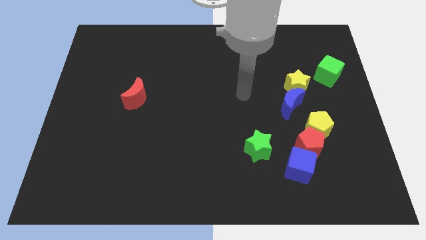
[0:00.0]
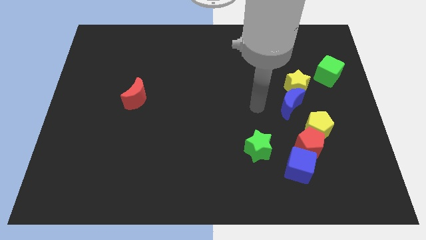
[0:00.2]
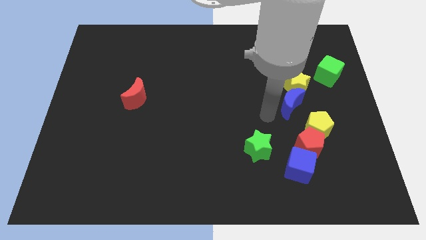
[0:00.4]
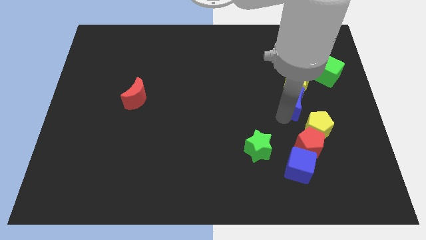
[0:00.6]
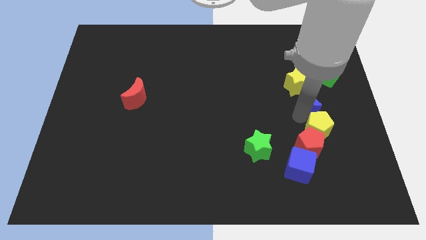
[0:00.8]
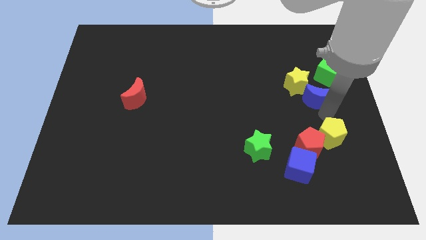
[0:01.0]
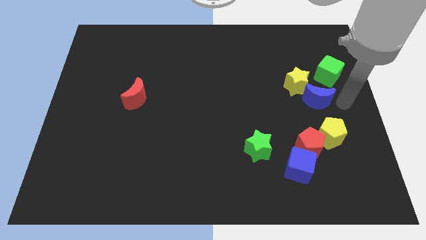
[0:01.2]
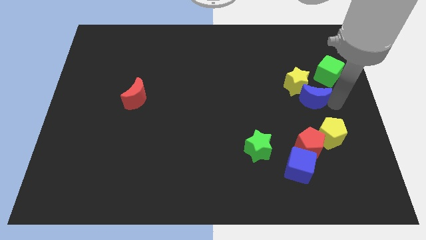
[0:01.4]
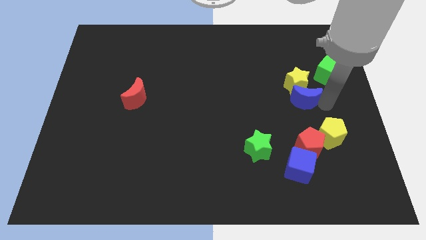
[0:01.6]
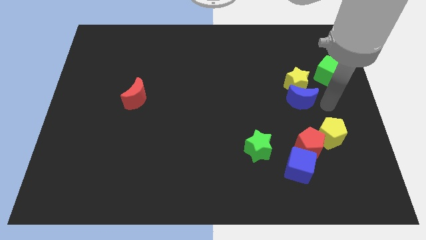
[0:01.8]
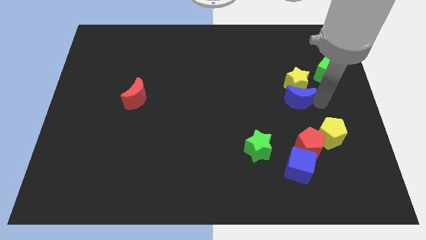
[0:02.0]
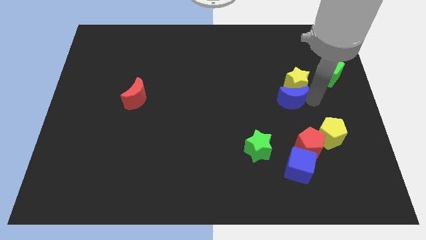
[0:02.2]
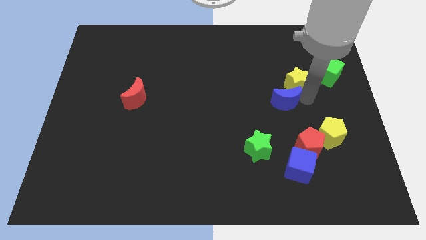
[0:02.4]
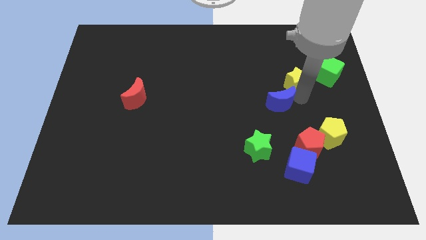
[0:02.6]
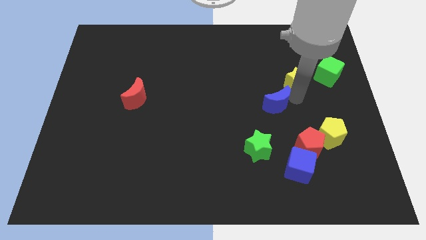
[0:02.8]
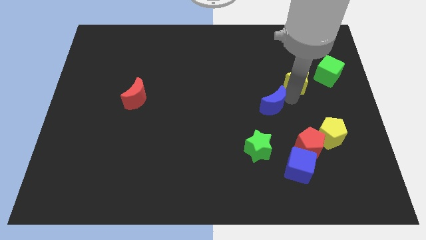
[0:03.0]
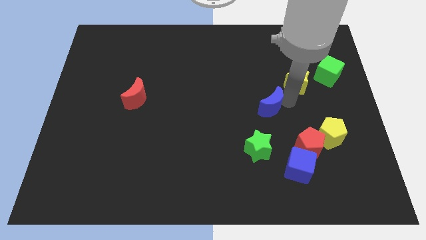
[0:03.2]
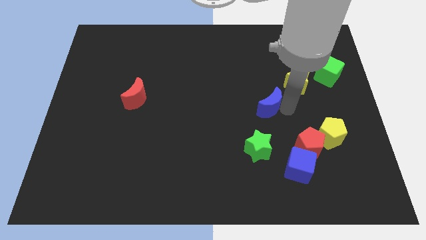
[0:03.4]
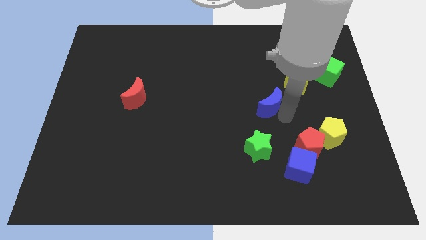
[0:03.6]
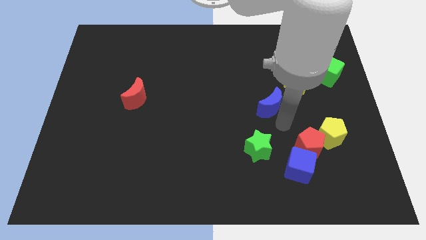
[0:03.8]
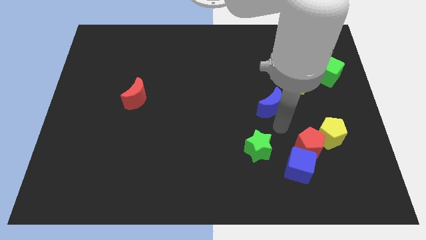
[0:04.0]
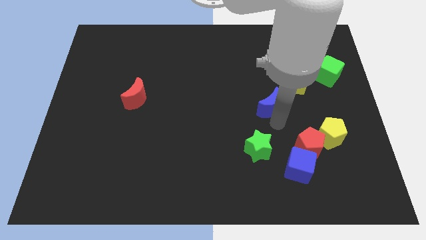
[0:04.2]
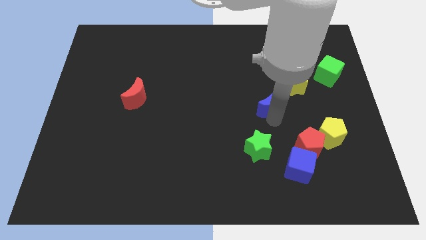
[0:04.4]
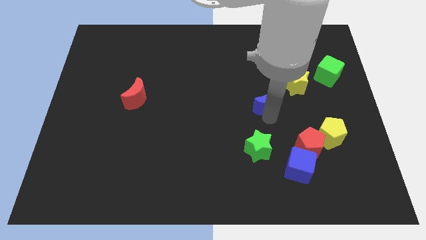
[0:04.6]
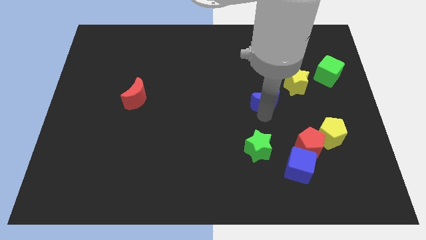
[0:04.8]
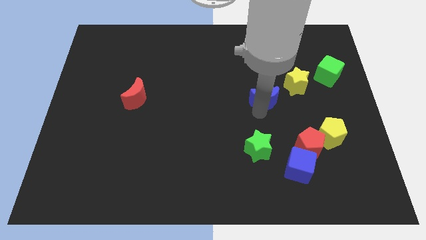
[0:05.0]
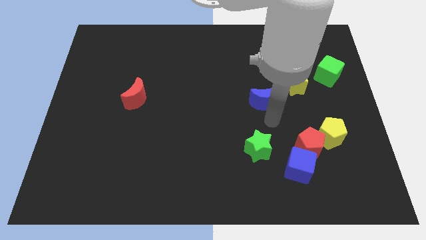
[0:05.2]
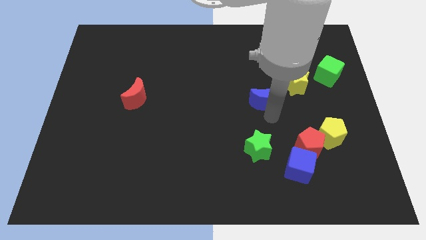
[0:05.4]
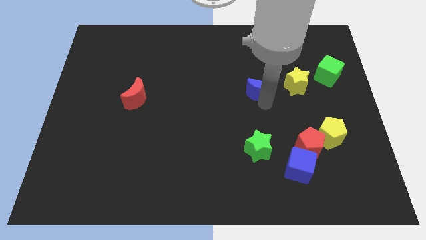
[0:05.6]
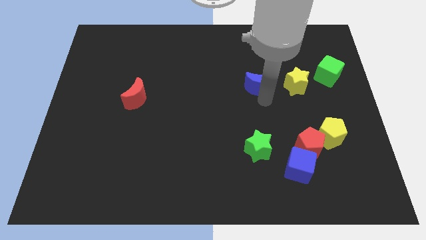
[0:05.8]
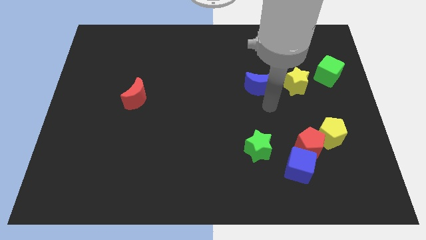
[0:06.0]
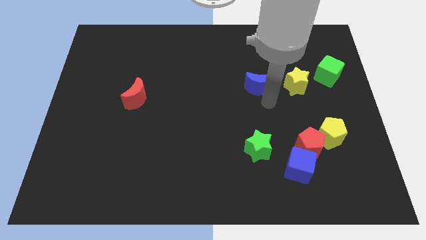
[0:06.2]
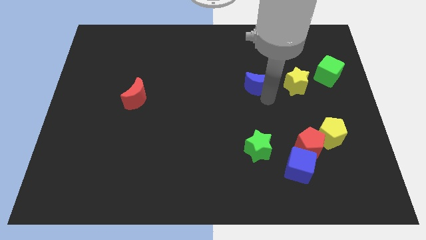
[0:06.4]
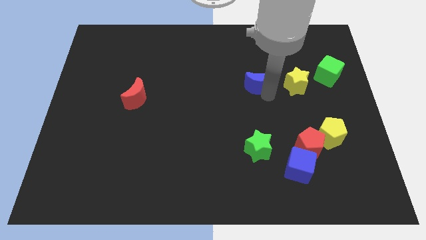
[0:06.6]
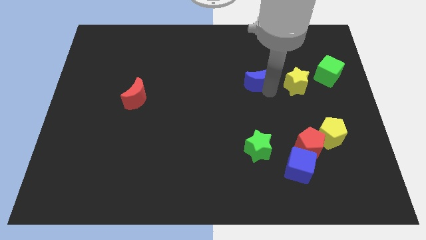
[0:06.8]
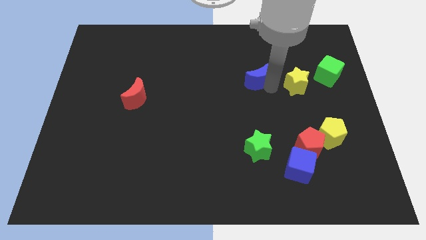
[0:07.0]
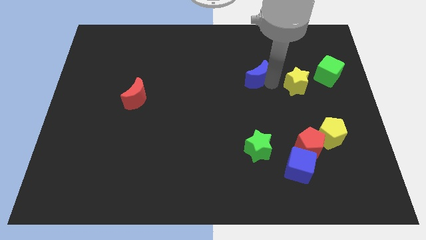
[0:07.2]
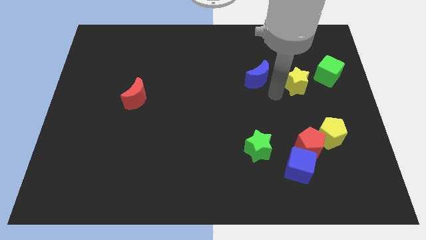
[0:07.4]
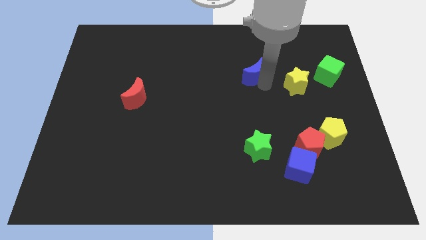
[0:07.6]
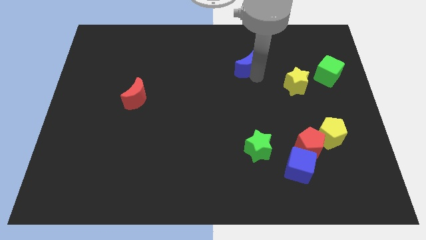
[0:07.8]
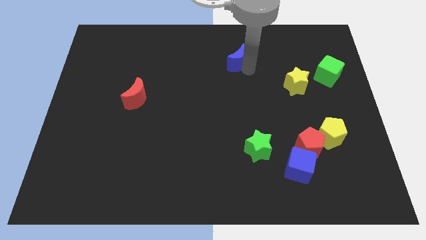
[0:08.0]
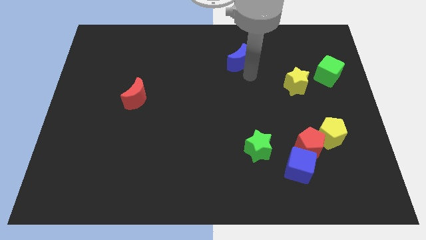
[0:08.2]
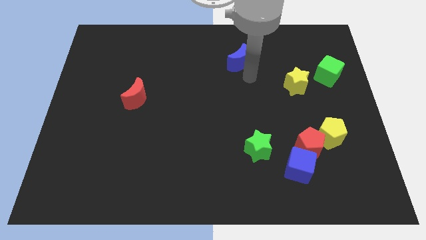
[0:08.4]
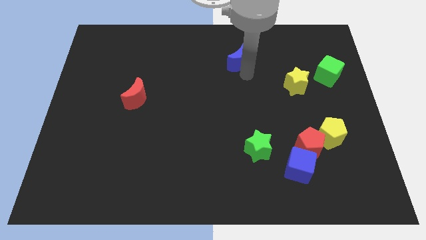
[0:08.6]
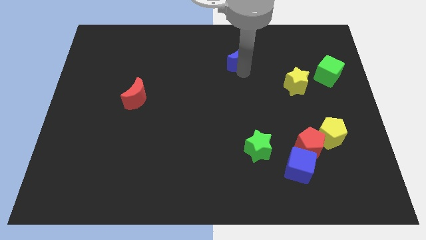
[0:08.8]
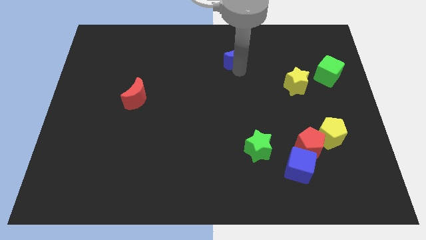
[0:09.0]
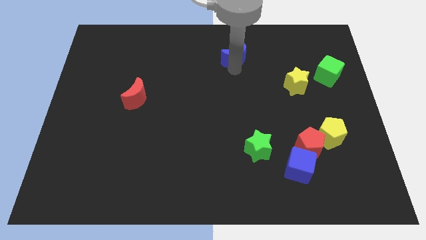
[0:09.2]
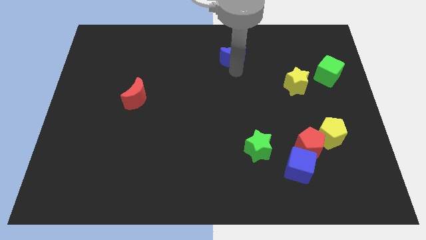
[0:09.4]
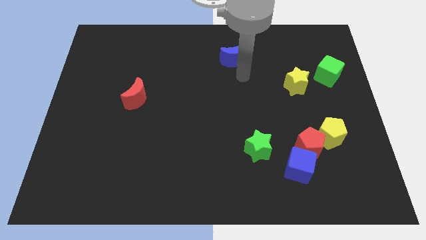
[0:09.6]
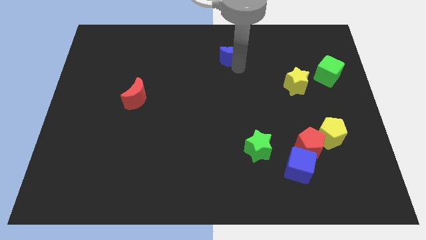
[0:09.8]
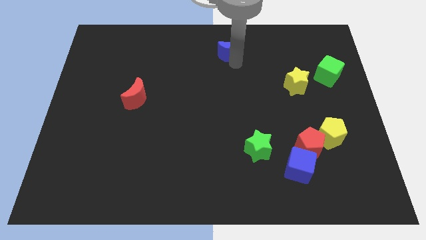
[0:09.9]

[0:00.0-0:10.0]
slide the blue moon to the towards your base

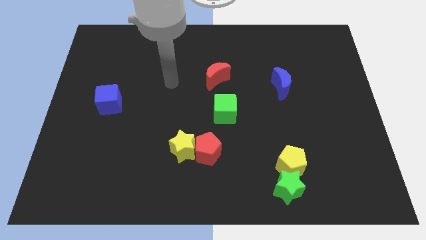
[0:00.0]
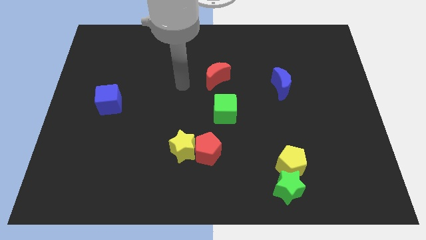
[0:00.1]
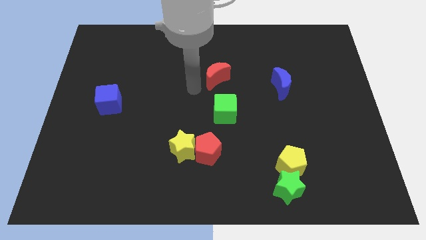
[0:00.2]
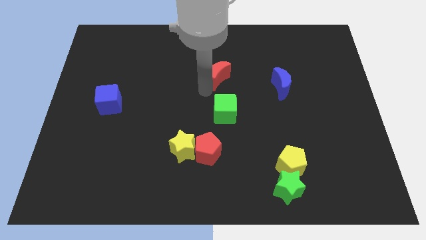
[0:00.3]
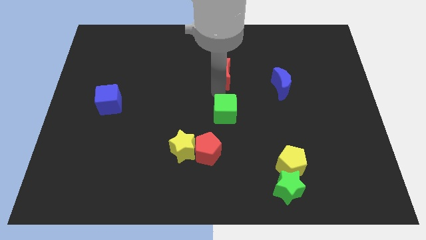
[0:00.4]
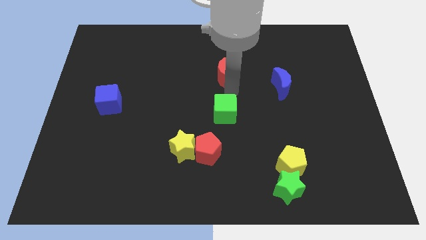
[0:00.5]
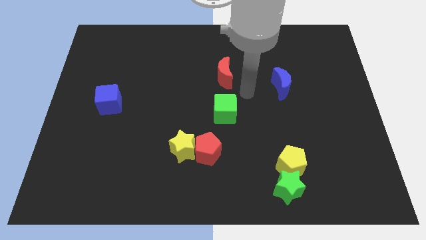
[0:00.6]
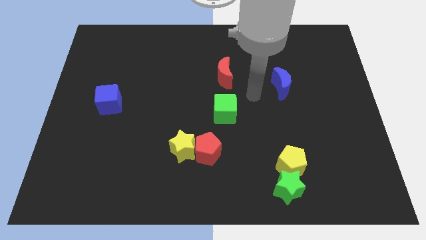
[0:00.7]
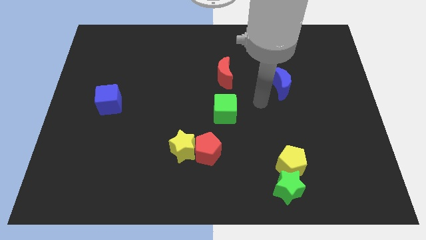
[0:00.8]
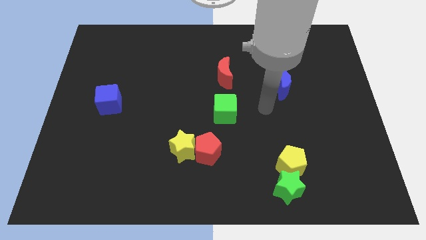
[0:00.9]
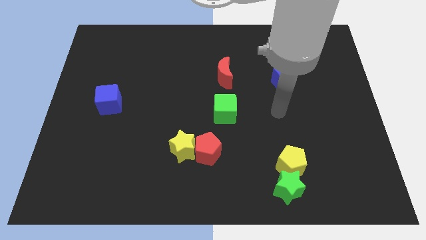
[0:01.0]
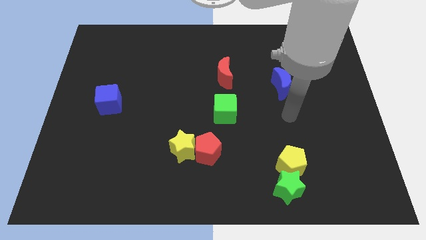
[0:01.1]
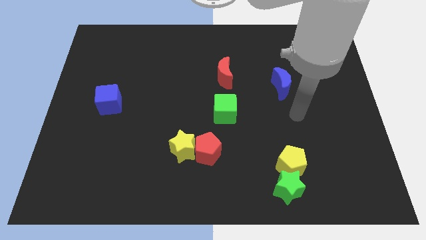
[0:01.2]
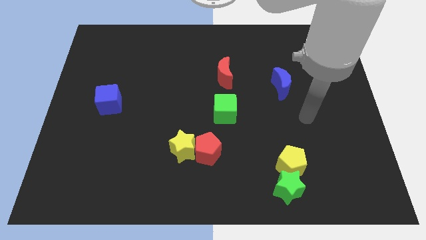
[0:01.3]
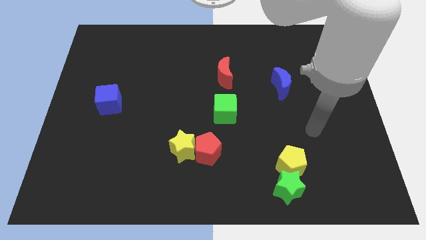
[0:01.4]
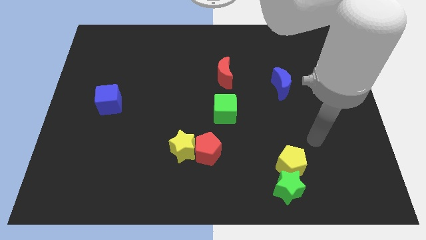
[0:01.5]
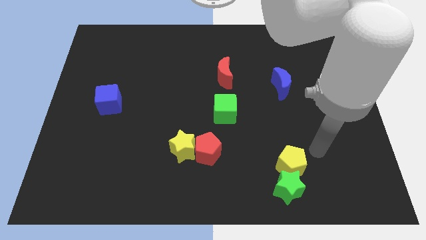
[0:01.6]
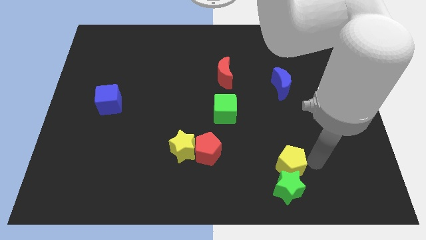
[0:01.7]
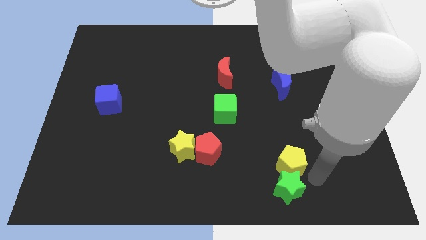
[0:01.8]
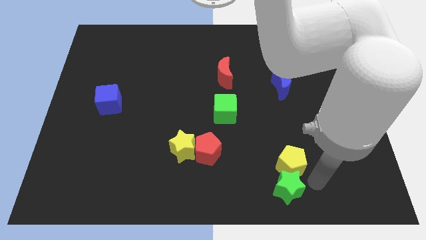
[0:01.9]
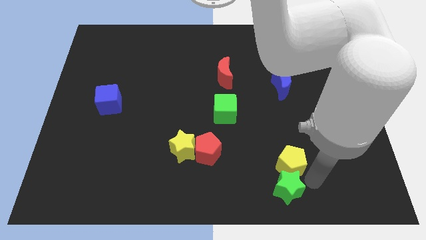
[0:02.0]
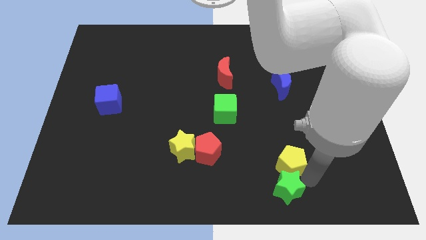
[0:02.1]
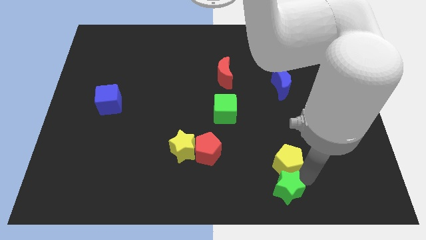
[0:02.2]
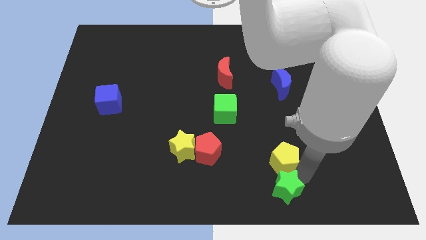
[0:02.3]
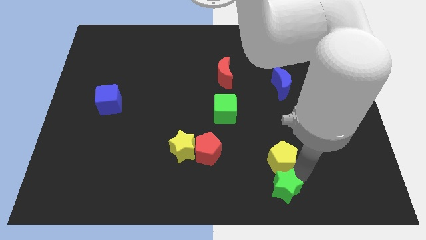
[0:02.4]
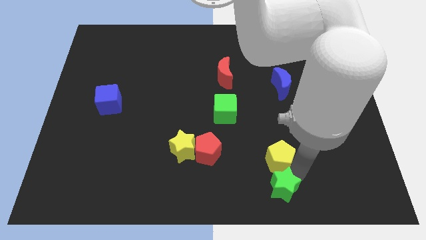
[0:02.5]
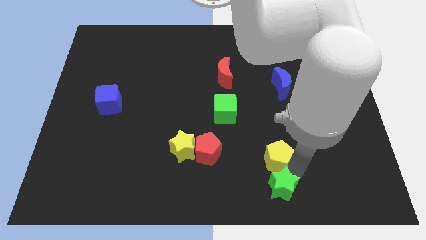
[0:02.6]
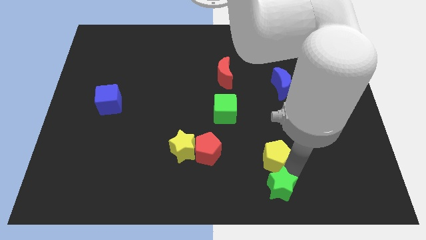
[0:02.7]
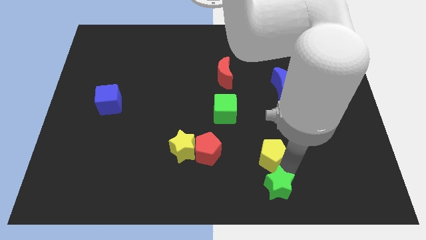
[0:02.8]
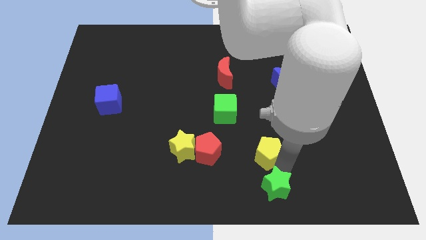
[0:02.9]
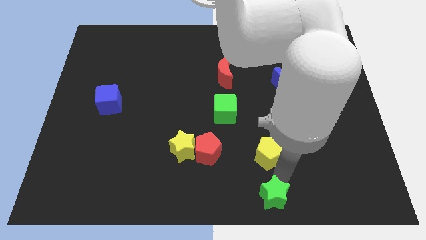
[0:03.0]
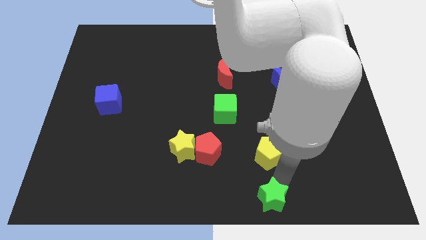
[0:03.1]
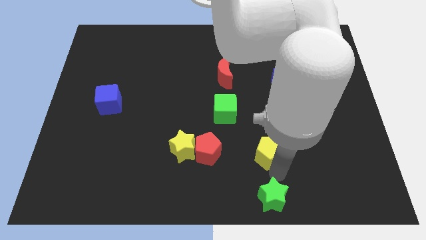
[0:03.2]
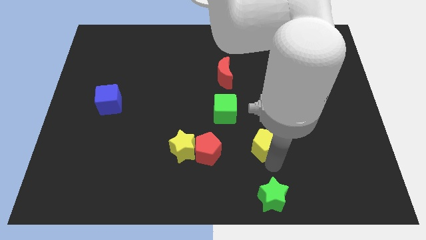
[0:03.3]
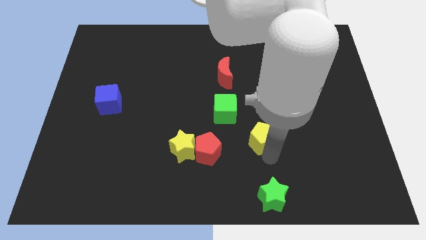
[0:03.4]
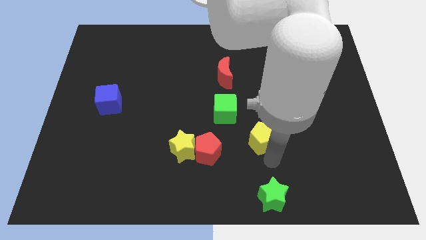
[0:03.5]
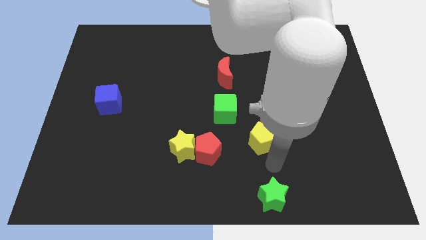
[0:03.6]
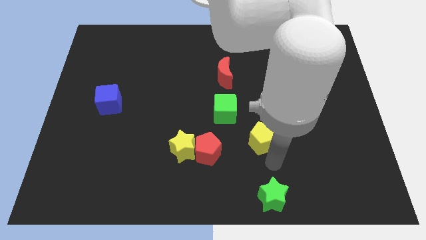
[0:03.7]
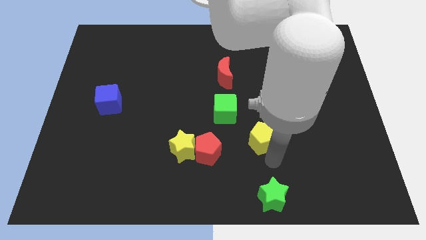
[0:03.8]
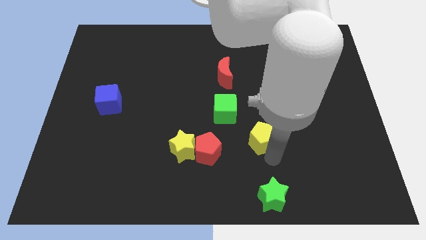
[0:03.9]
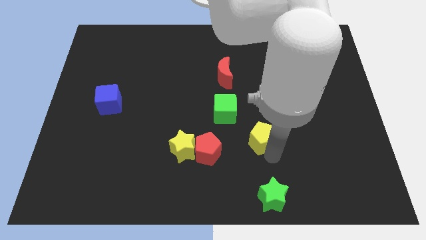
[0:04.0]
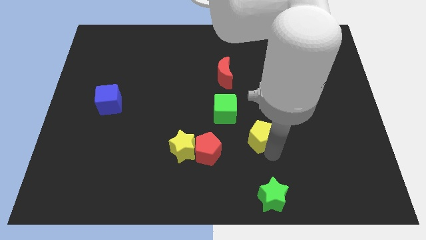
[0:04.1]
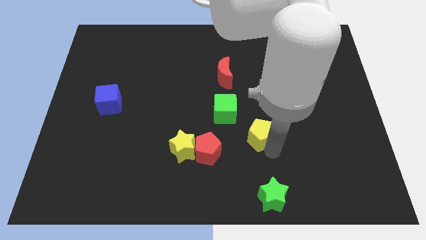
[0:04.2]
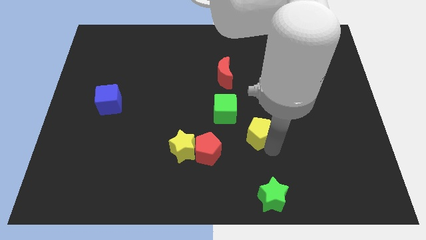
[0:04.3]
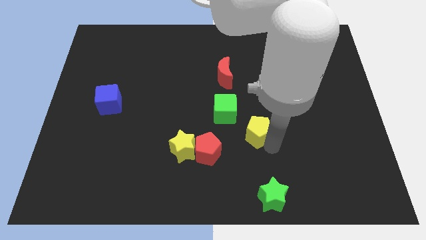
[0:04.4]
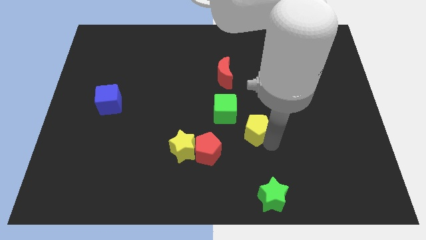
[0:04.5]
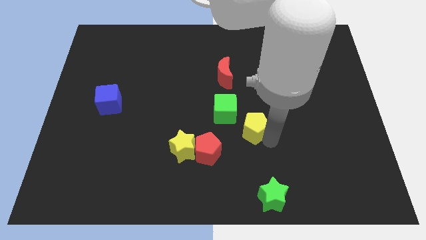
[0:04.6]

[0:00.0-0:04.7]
slide the yellow pentagon to the middle of the board
